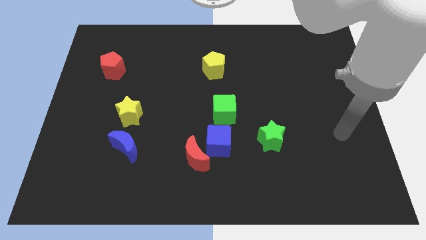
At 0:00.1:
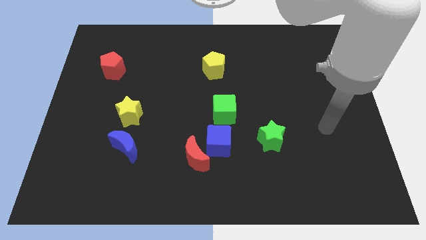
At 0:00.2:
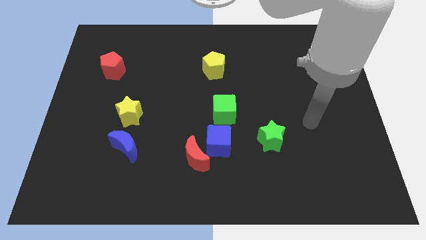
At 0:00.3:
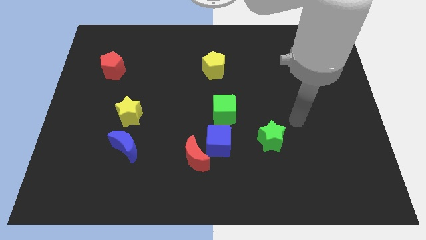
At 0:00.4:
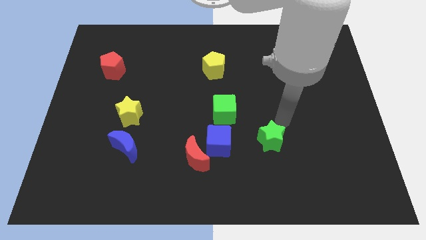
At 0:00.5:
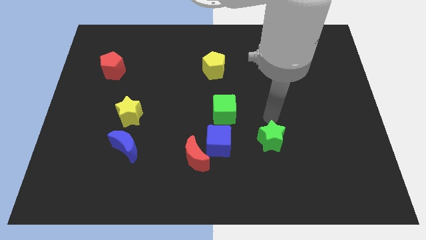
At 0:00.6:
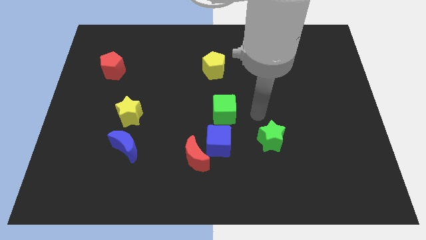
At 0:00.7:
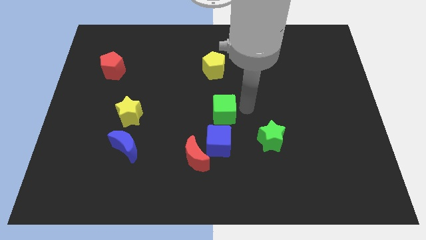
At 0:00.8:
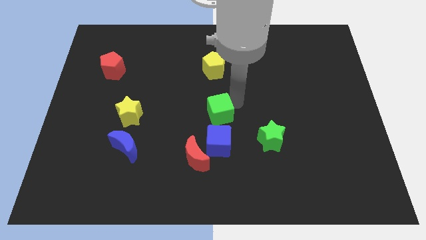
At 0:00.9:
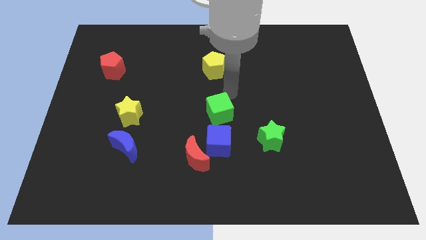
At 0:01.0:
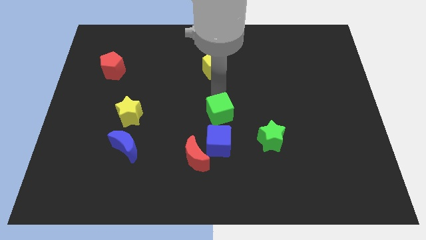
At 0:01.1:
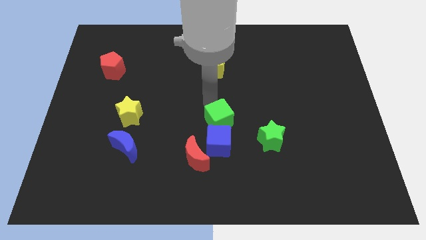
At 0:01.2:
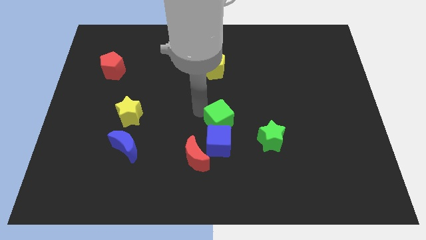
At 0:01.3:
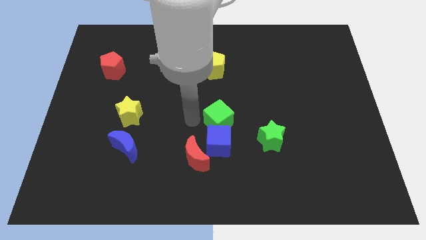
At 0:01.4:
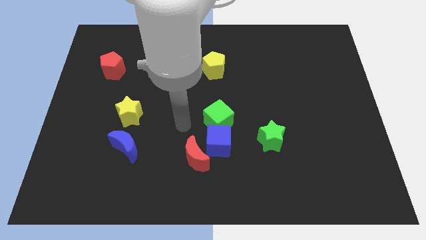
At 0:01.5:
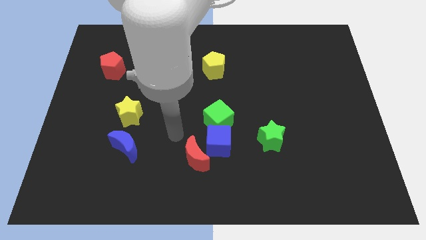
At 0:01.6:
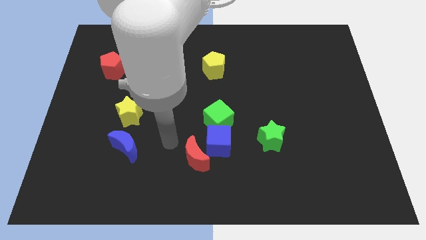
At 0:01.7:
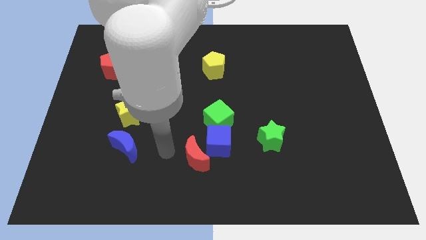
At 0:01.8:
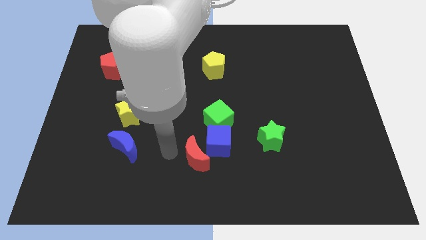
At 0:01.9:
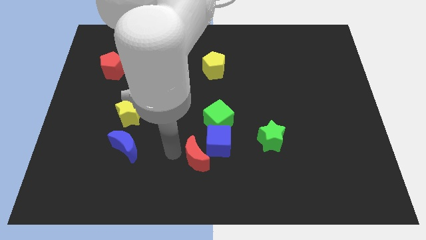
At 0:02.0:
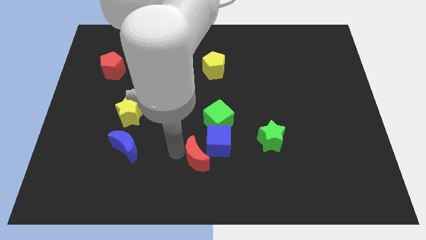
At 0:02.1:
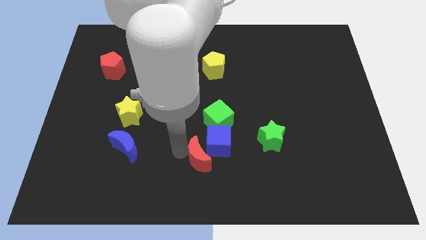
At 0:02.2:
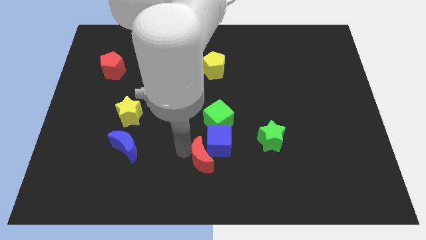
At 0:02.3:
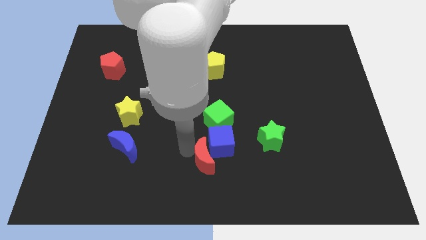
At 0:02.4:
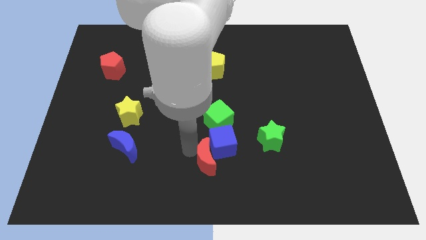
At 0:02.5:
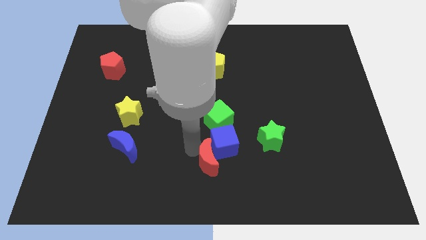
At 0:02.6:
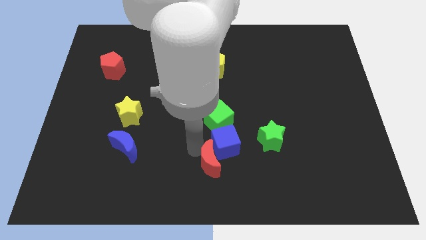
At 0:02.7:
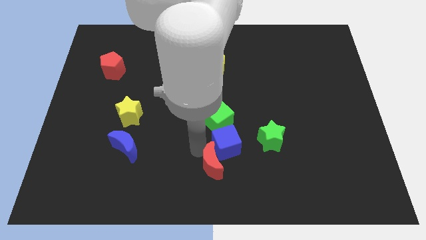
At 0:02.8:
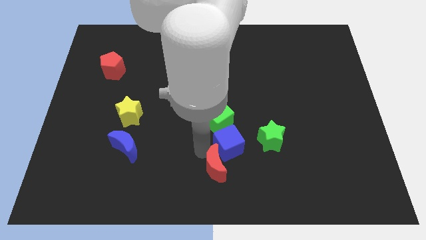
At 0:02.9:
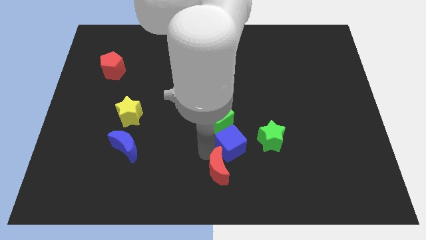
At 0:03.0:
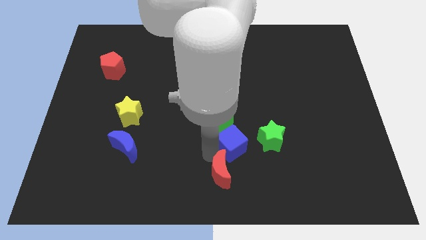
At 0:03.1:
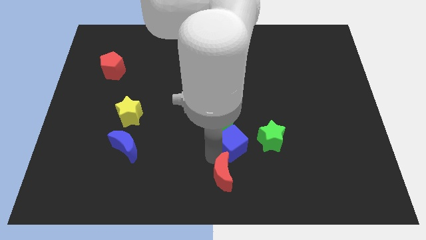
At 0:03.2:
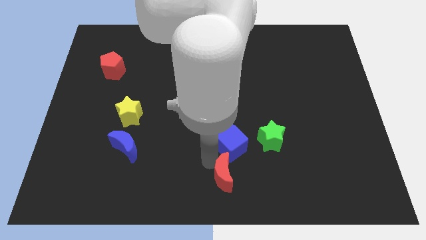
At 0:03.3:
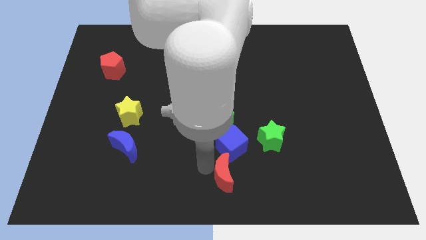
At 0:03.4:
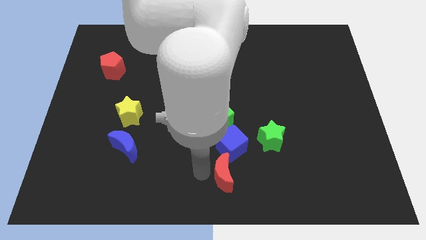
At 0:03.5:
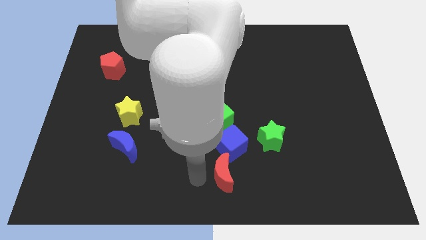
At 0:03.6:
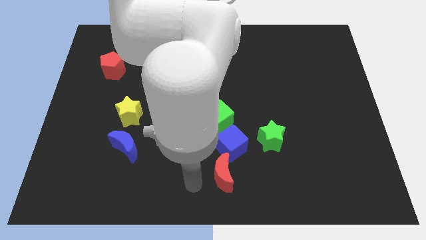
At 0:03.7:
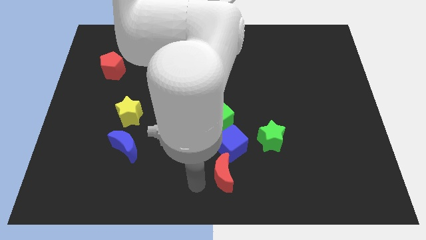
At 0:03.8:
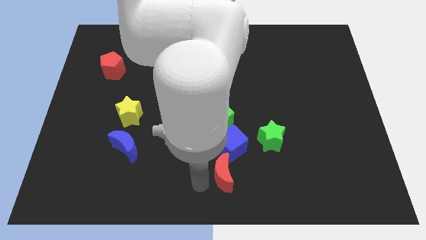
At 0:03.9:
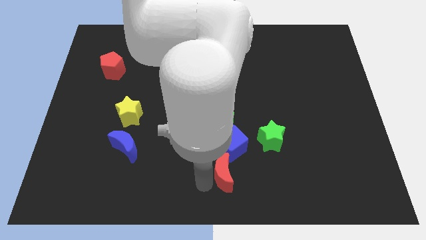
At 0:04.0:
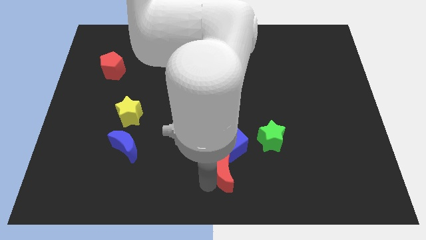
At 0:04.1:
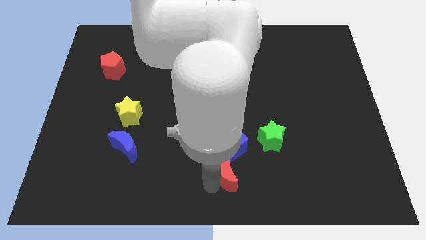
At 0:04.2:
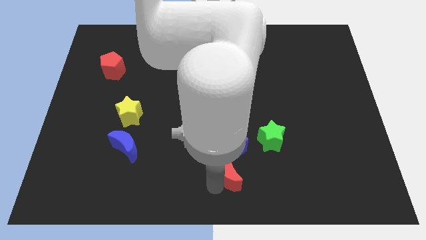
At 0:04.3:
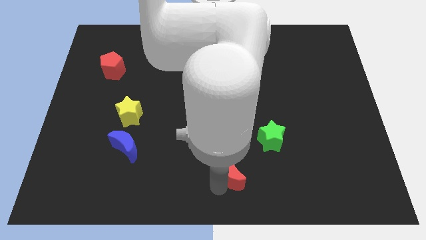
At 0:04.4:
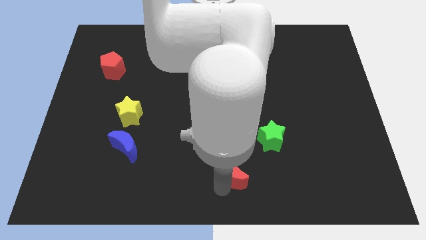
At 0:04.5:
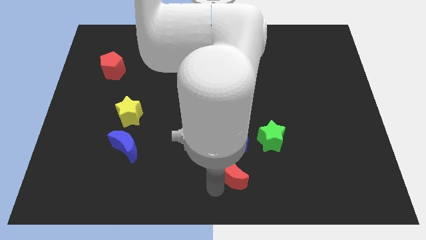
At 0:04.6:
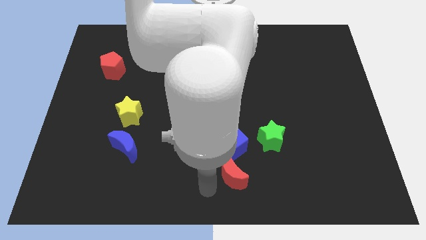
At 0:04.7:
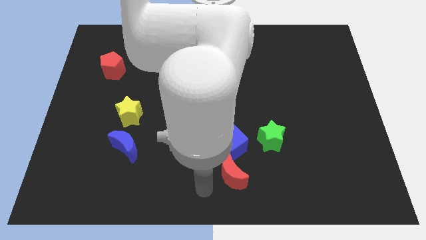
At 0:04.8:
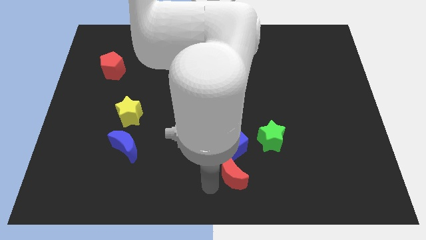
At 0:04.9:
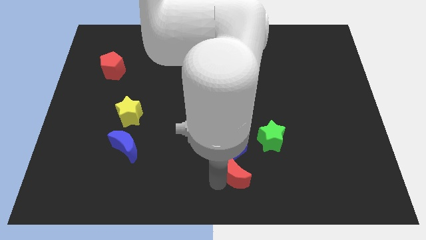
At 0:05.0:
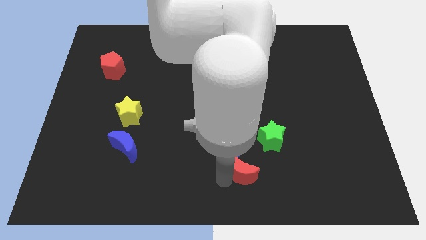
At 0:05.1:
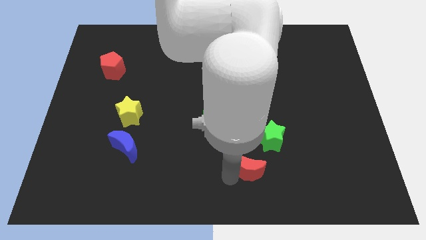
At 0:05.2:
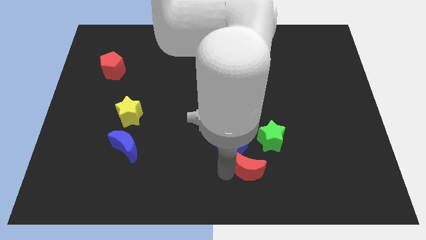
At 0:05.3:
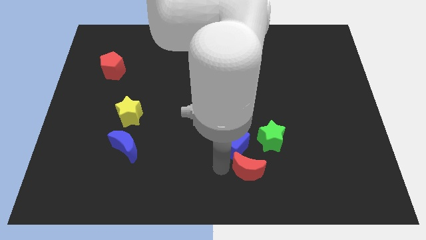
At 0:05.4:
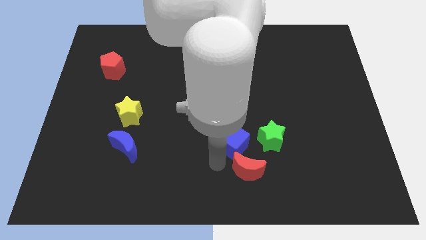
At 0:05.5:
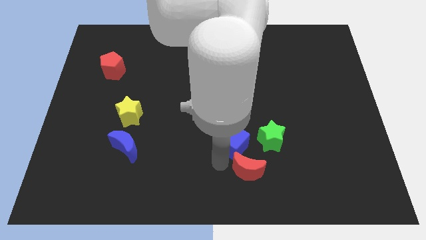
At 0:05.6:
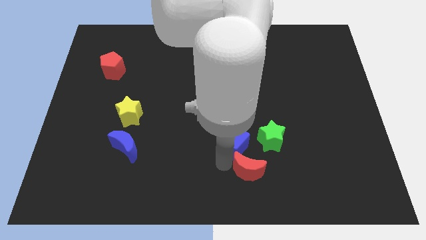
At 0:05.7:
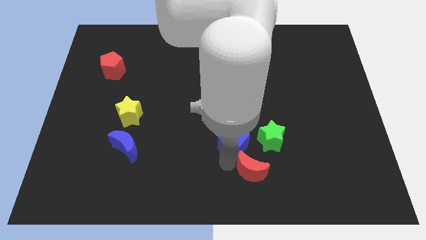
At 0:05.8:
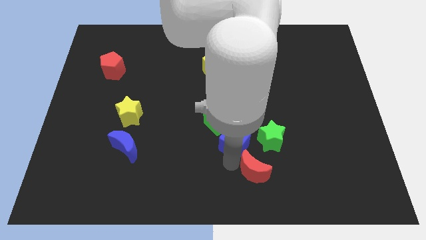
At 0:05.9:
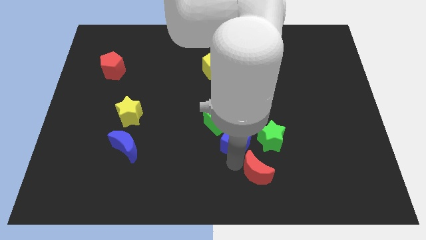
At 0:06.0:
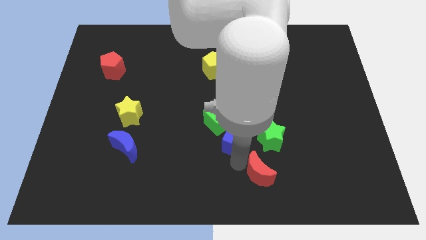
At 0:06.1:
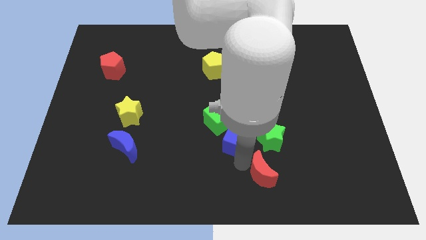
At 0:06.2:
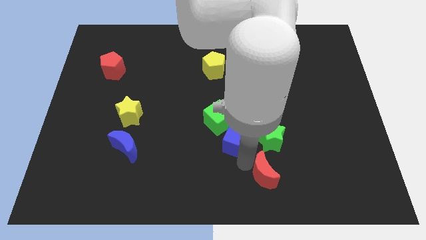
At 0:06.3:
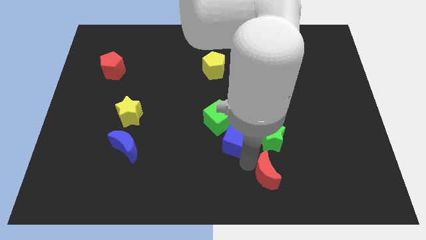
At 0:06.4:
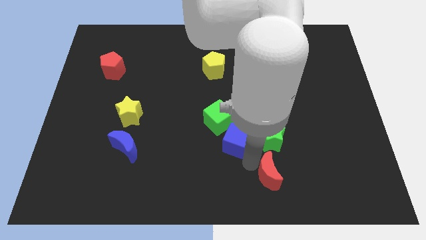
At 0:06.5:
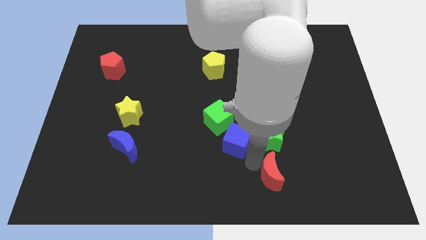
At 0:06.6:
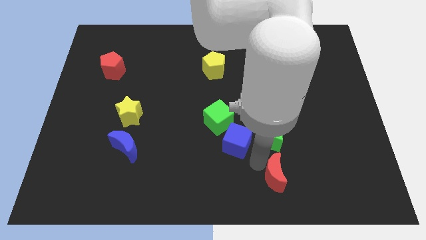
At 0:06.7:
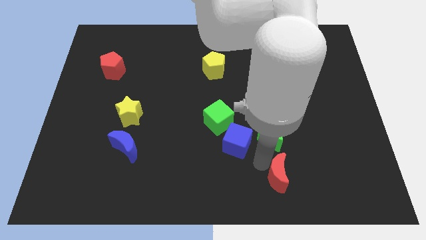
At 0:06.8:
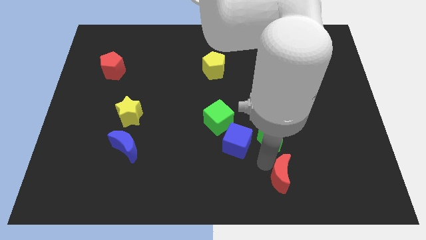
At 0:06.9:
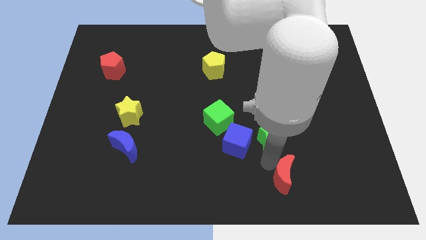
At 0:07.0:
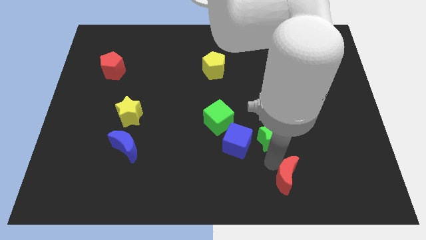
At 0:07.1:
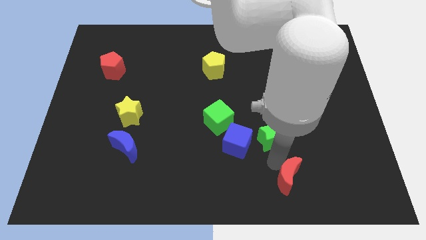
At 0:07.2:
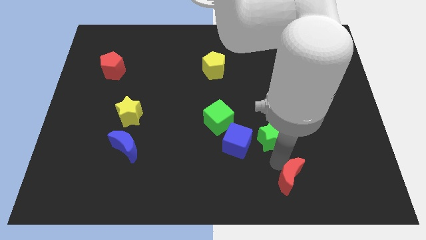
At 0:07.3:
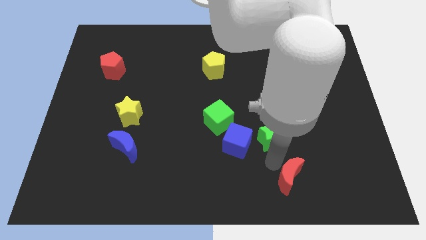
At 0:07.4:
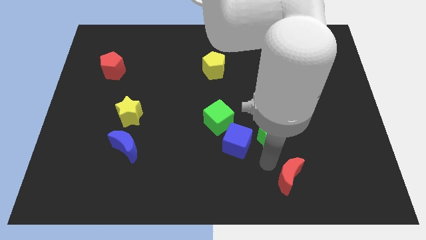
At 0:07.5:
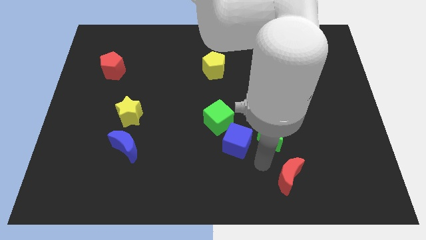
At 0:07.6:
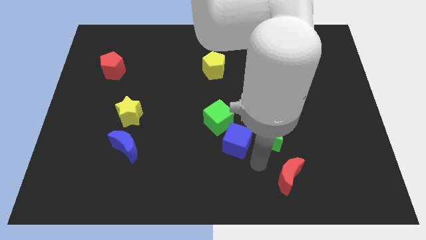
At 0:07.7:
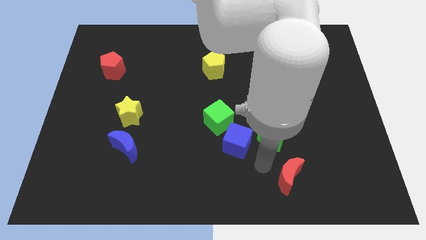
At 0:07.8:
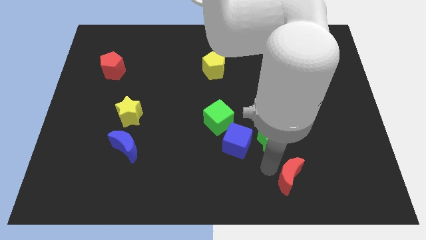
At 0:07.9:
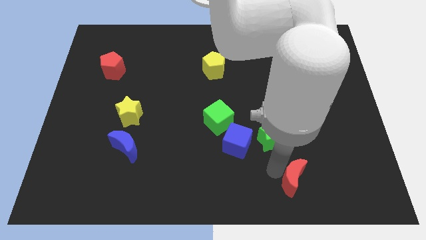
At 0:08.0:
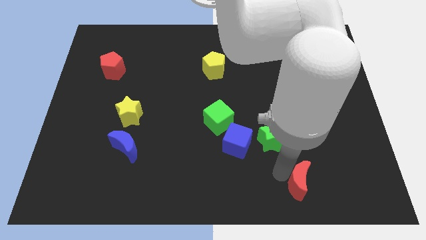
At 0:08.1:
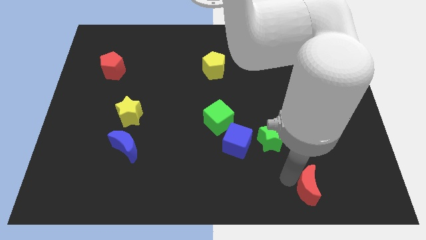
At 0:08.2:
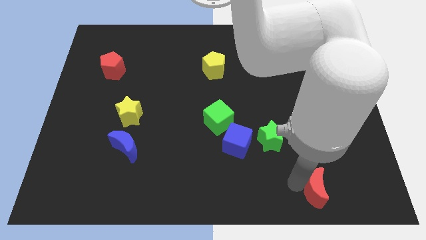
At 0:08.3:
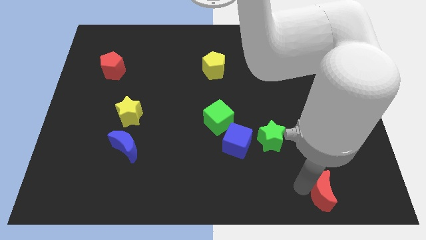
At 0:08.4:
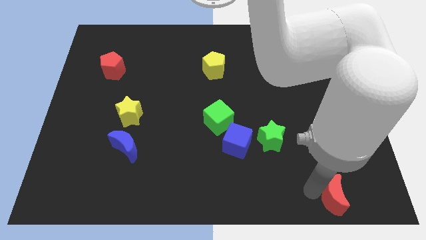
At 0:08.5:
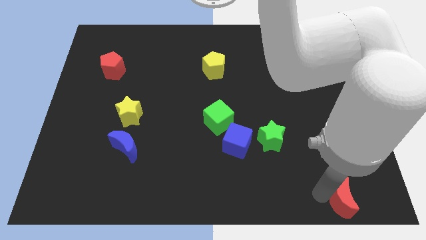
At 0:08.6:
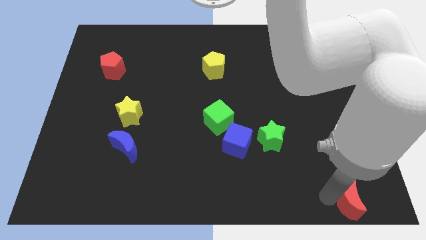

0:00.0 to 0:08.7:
move the red moon to the bottom right corner
